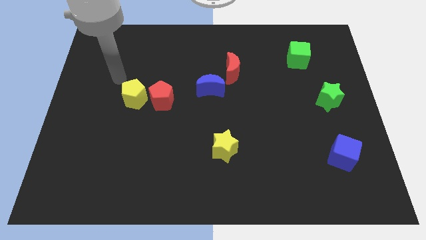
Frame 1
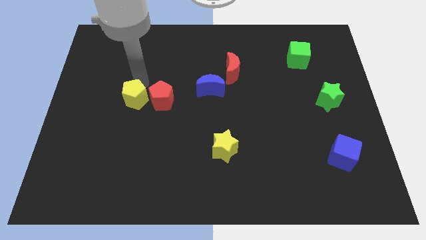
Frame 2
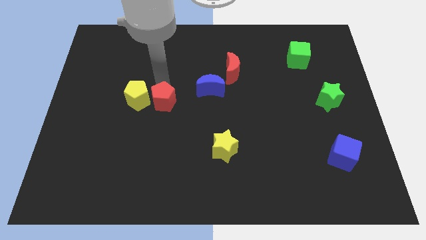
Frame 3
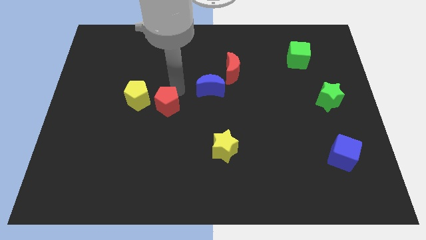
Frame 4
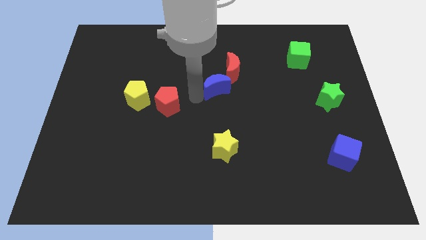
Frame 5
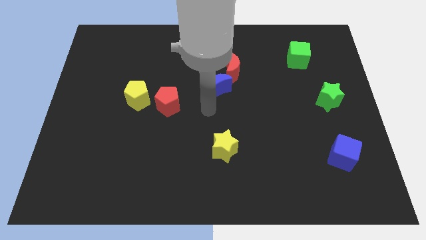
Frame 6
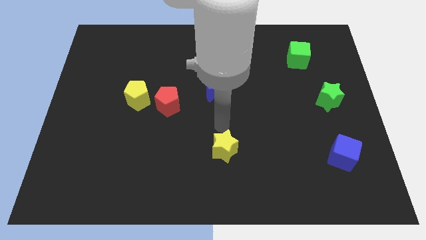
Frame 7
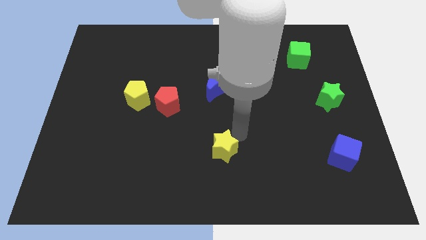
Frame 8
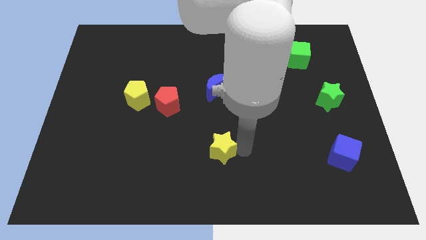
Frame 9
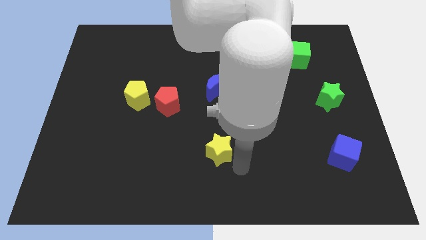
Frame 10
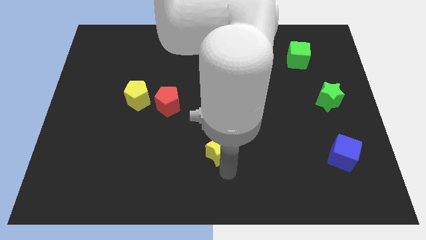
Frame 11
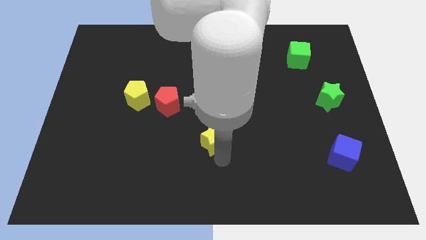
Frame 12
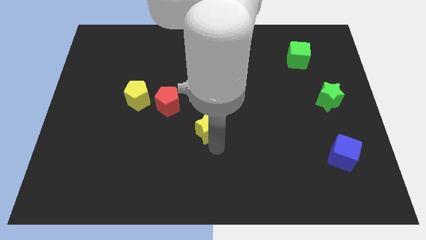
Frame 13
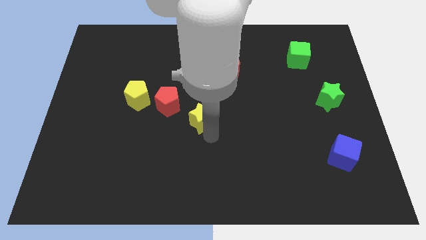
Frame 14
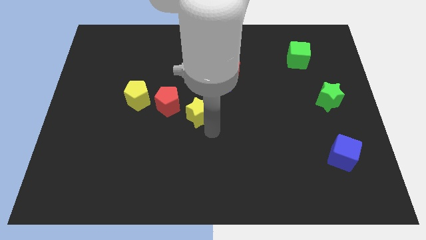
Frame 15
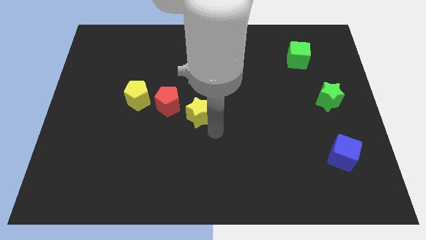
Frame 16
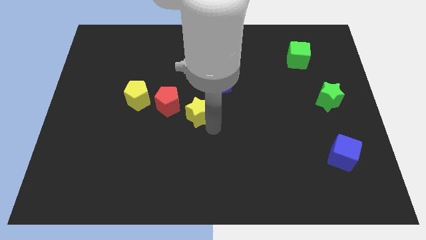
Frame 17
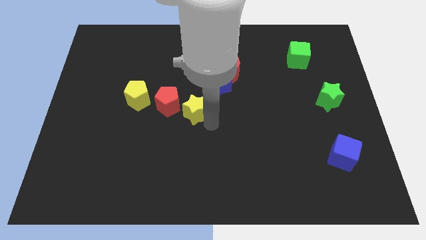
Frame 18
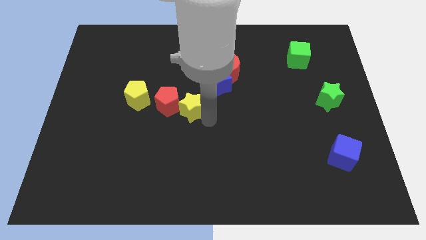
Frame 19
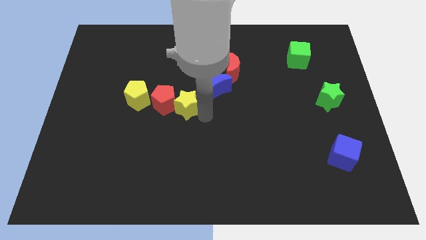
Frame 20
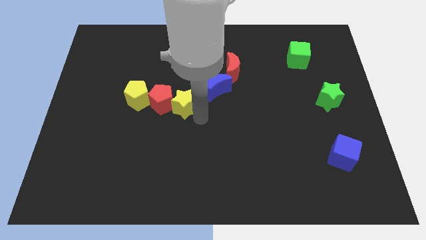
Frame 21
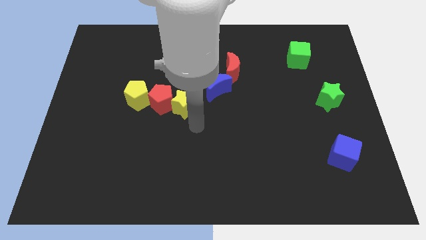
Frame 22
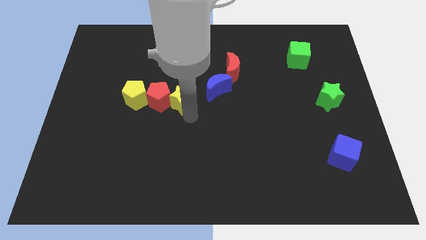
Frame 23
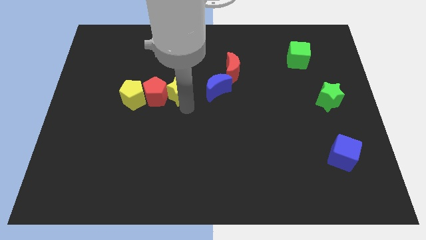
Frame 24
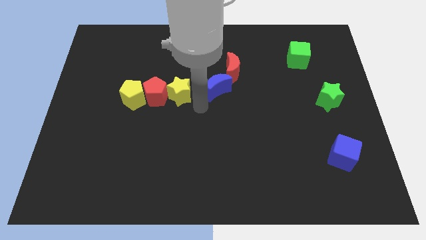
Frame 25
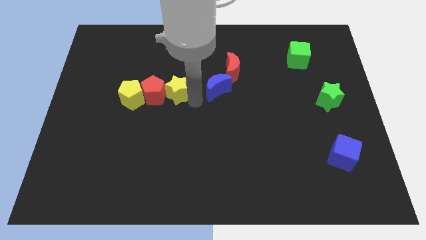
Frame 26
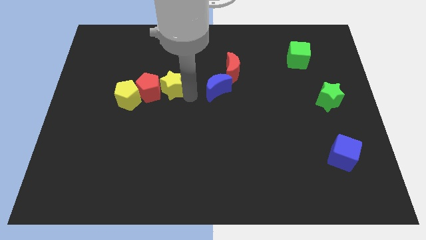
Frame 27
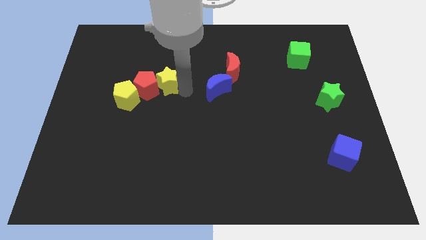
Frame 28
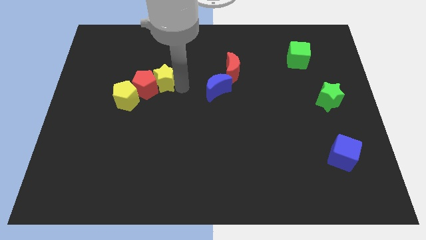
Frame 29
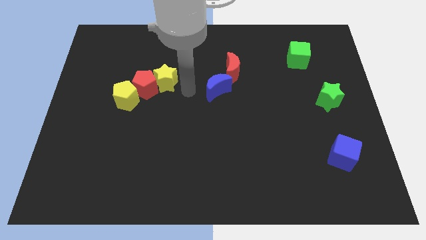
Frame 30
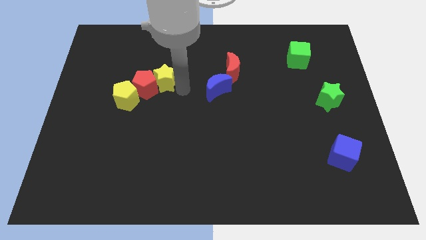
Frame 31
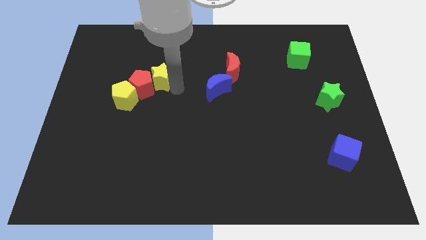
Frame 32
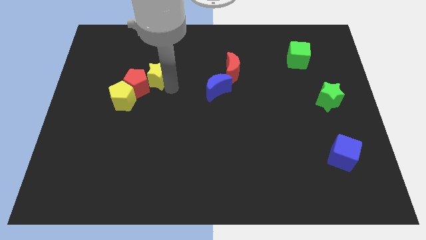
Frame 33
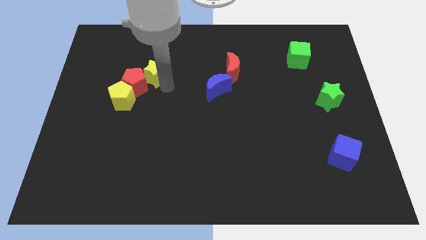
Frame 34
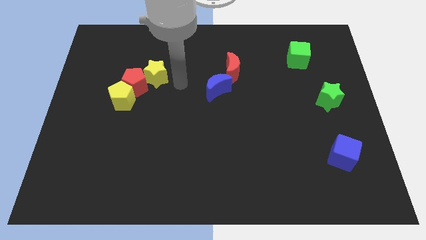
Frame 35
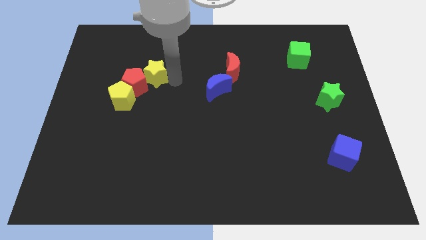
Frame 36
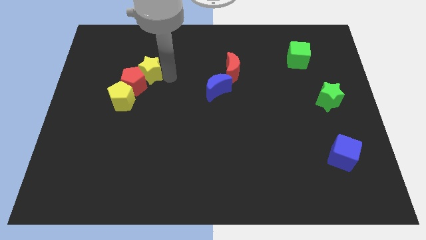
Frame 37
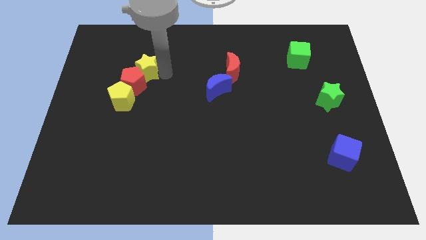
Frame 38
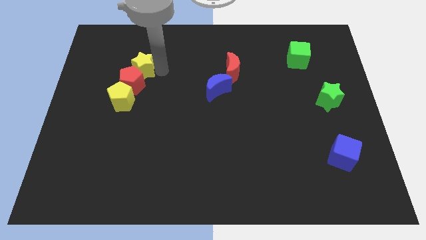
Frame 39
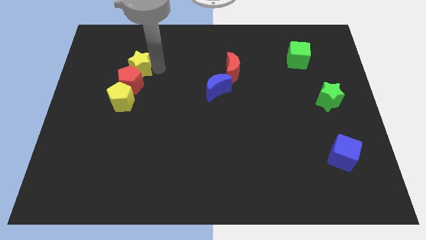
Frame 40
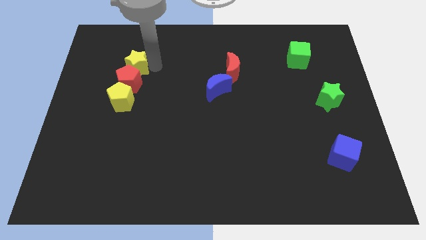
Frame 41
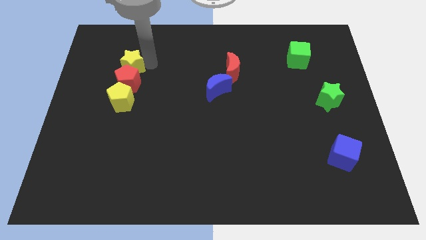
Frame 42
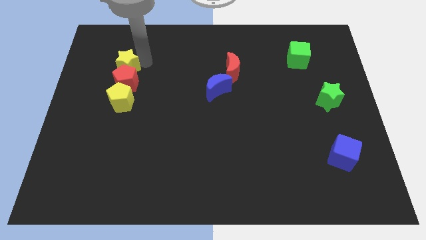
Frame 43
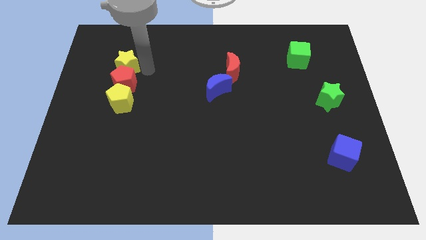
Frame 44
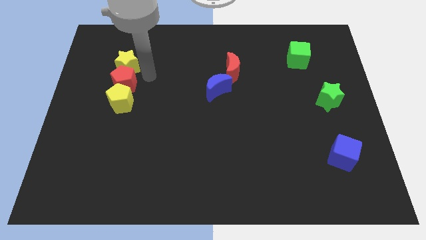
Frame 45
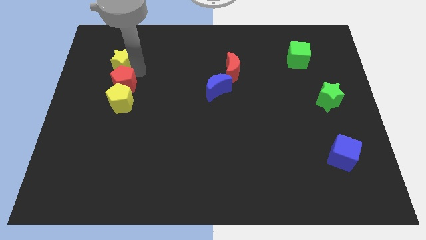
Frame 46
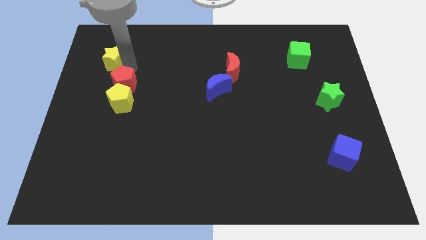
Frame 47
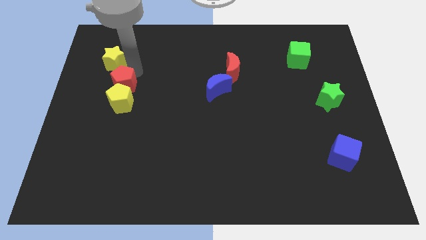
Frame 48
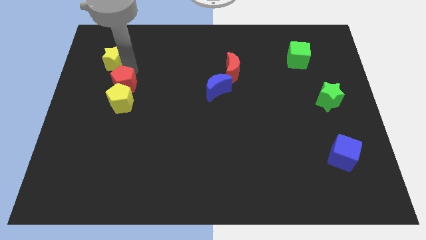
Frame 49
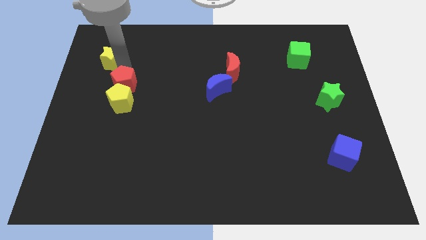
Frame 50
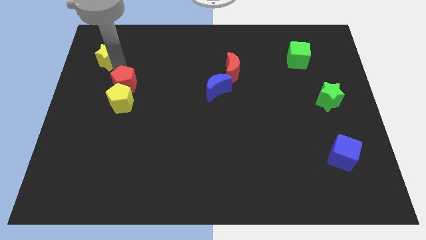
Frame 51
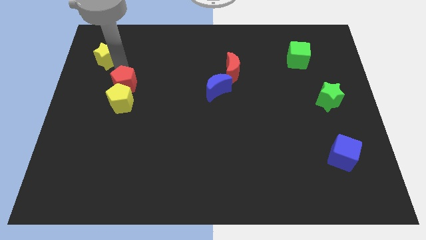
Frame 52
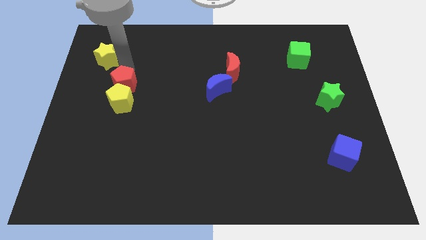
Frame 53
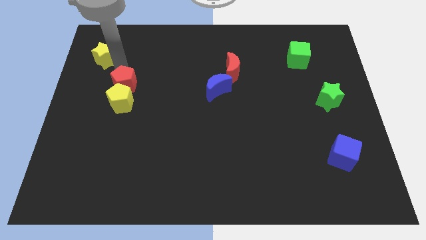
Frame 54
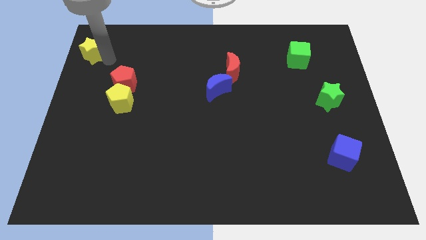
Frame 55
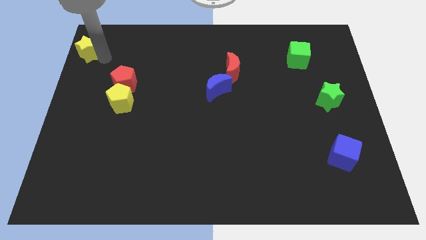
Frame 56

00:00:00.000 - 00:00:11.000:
put the yellow star to the top left corner
